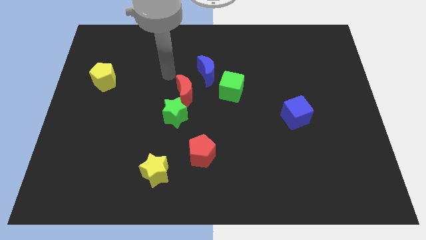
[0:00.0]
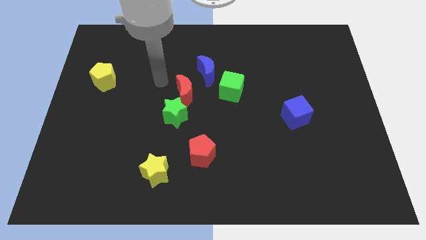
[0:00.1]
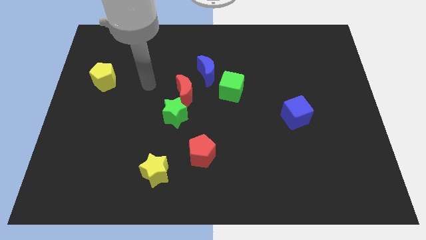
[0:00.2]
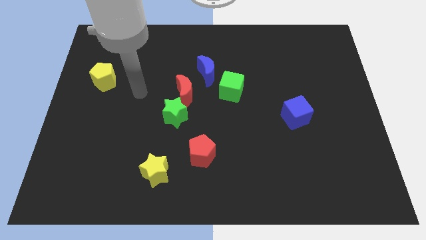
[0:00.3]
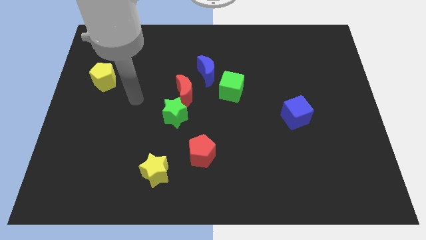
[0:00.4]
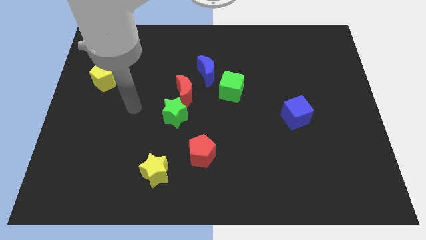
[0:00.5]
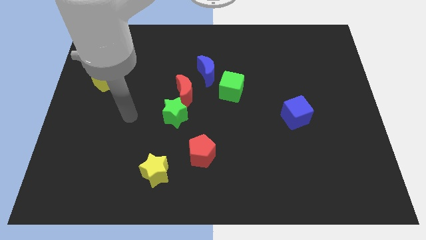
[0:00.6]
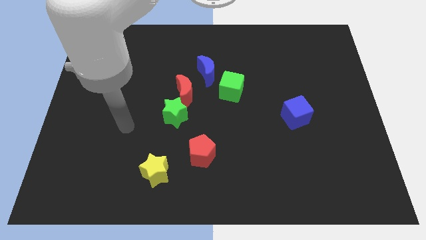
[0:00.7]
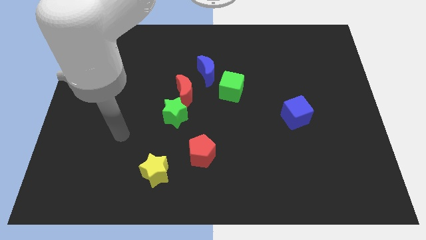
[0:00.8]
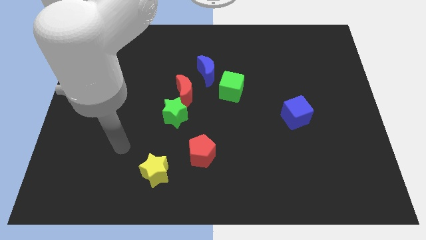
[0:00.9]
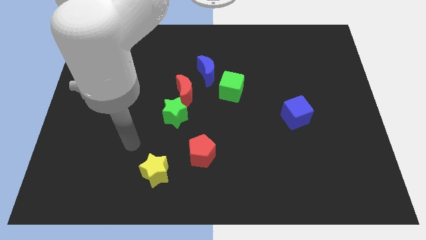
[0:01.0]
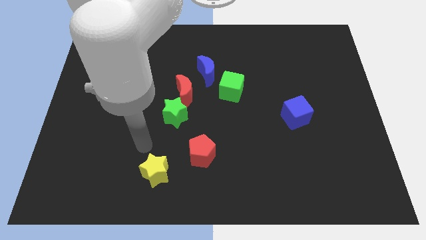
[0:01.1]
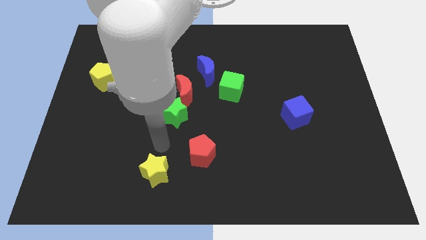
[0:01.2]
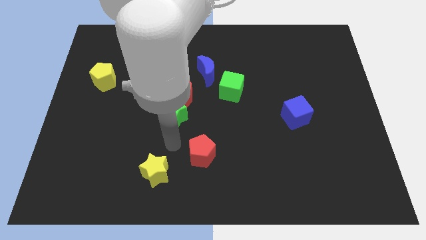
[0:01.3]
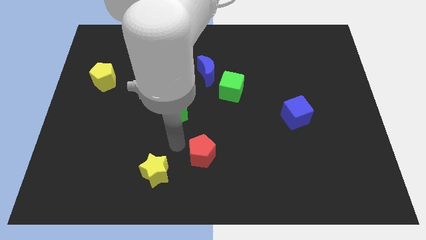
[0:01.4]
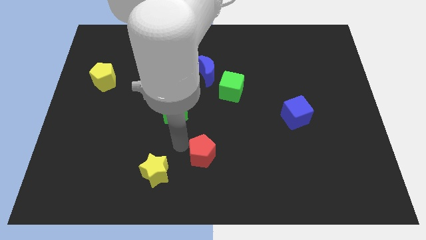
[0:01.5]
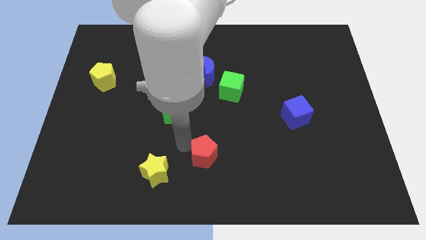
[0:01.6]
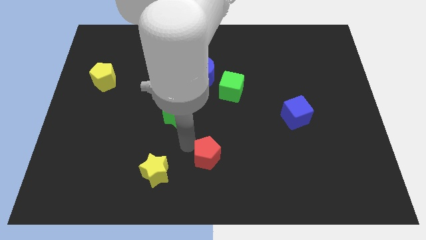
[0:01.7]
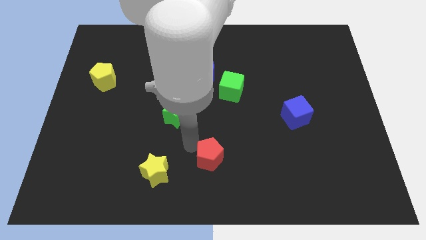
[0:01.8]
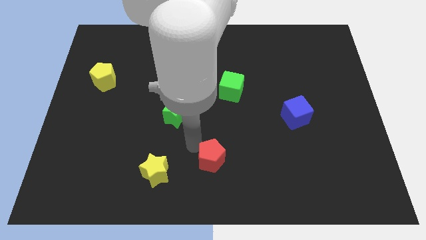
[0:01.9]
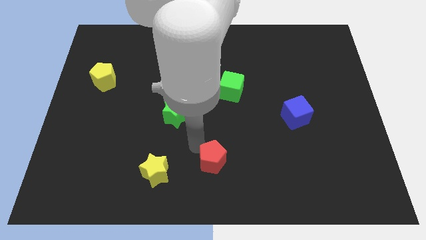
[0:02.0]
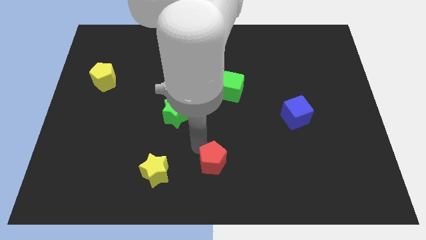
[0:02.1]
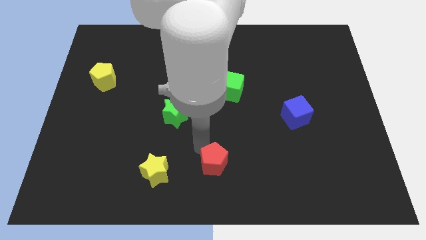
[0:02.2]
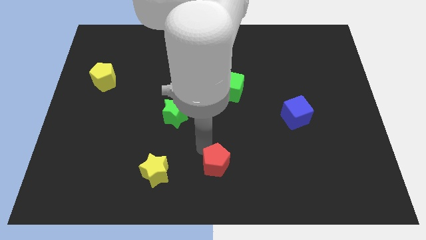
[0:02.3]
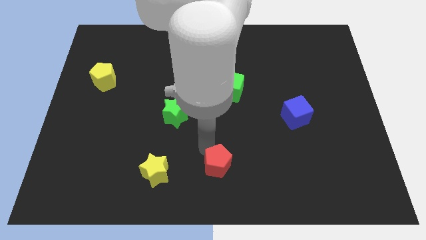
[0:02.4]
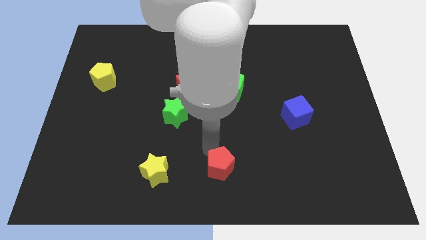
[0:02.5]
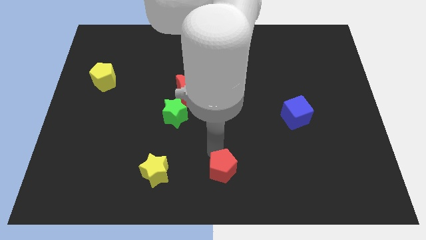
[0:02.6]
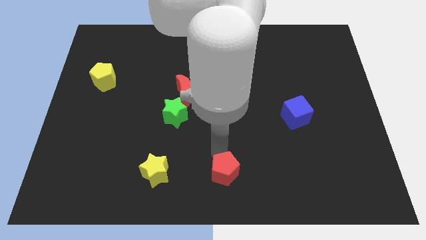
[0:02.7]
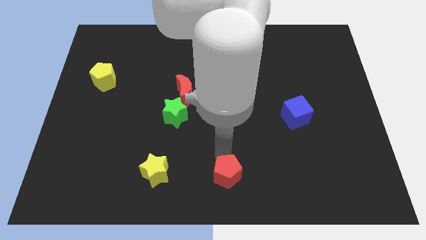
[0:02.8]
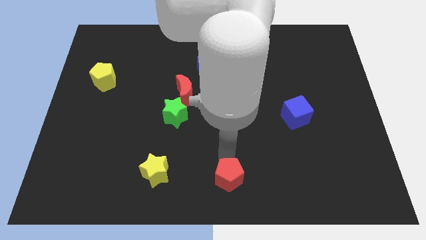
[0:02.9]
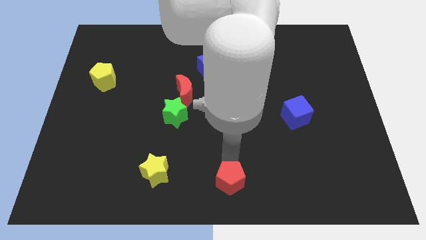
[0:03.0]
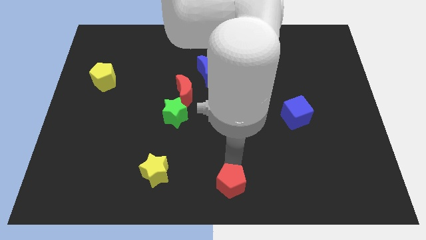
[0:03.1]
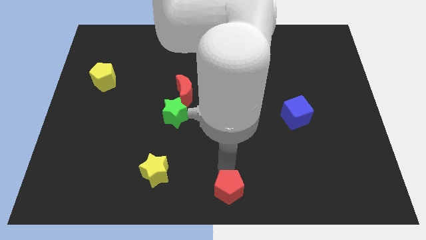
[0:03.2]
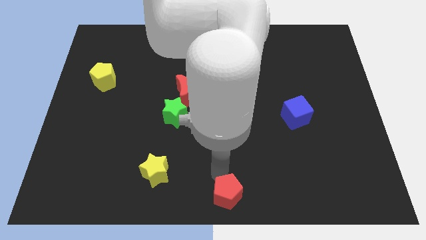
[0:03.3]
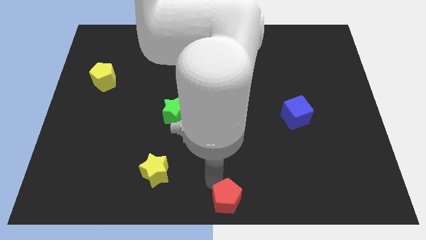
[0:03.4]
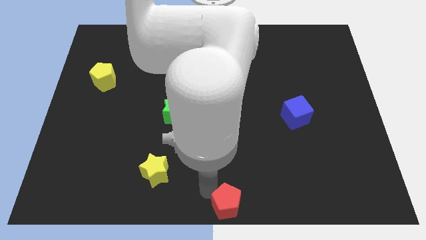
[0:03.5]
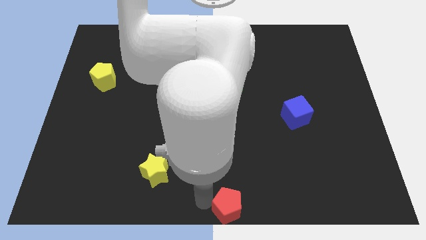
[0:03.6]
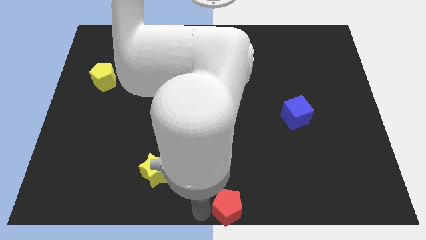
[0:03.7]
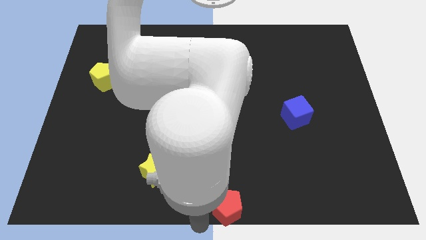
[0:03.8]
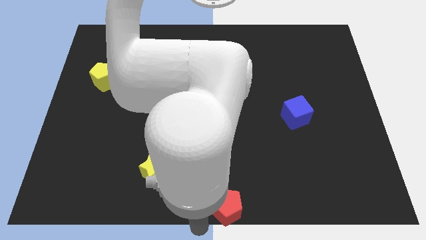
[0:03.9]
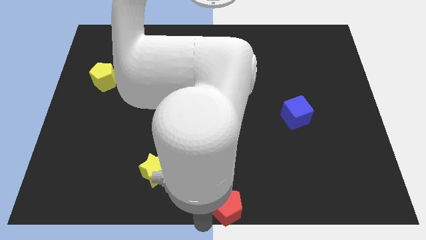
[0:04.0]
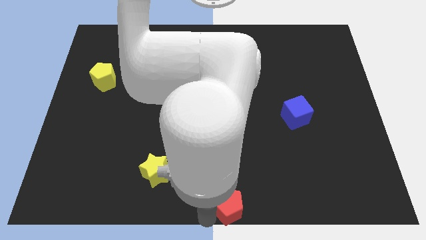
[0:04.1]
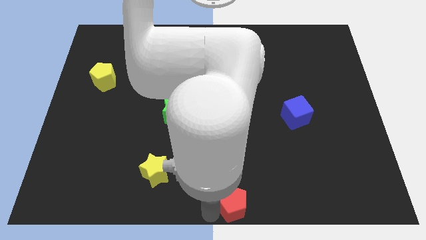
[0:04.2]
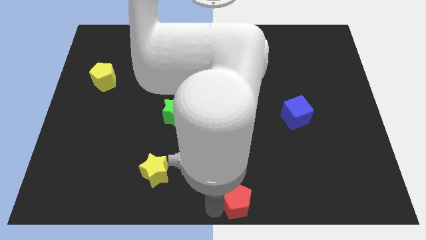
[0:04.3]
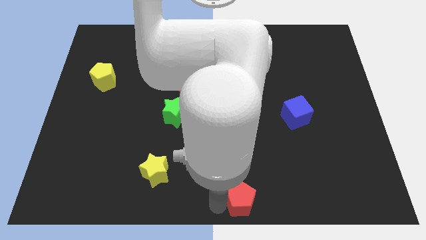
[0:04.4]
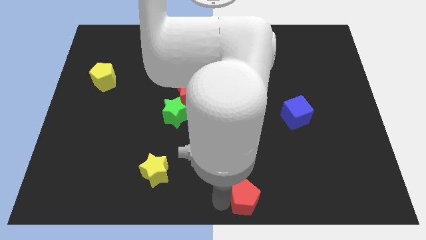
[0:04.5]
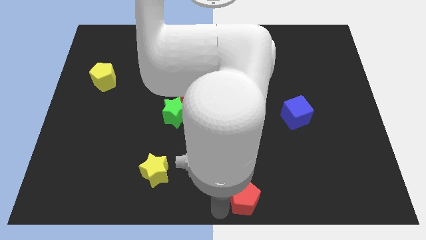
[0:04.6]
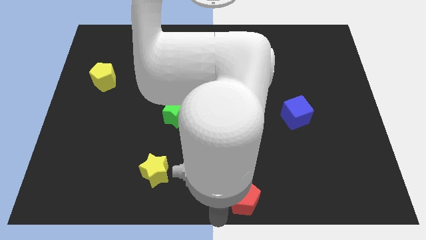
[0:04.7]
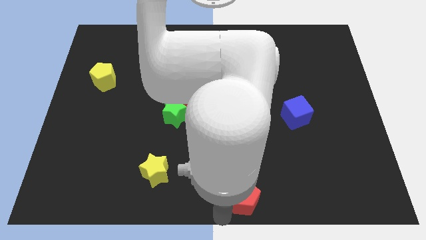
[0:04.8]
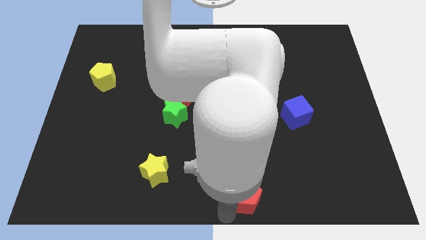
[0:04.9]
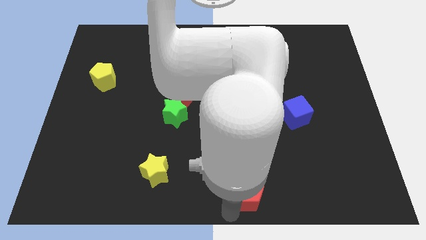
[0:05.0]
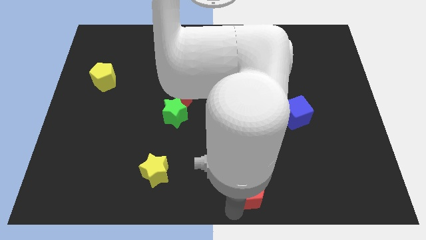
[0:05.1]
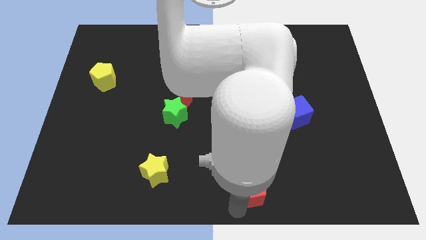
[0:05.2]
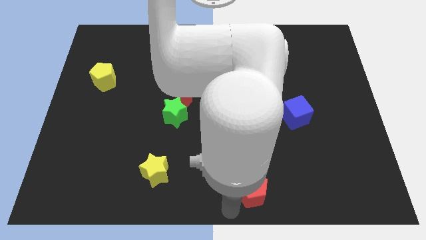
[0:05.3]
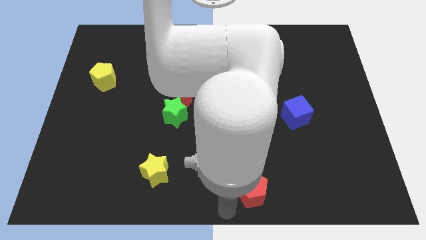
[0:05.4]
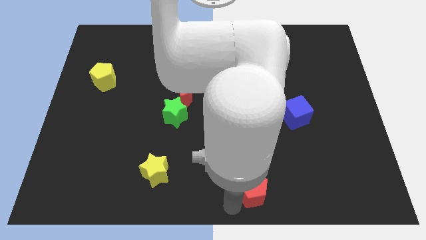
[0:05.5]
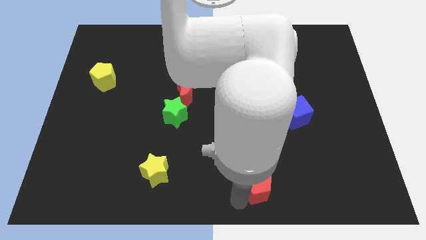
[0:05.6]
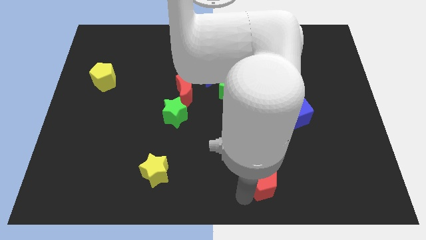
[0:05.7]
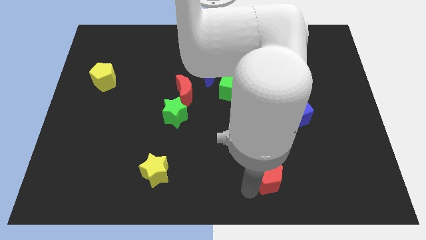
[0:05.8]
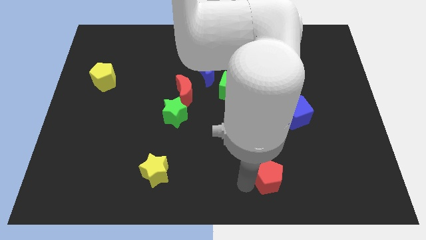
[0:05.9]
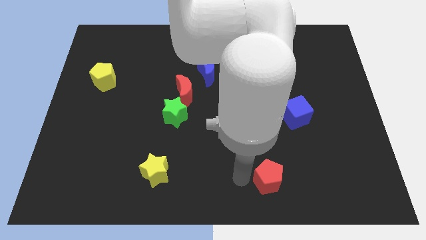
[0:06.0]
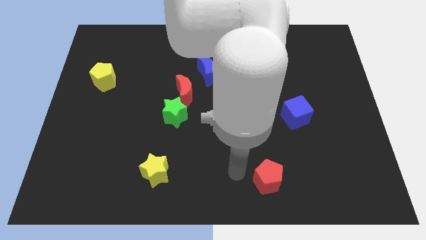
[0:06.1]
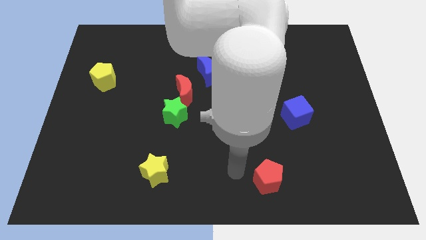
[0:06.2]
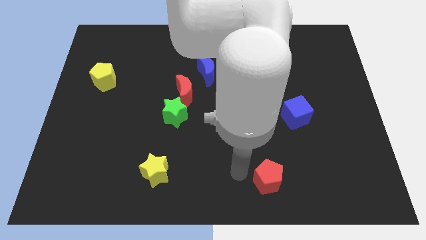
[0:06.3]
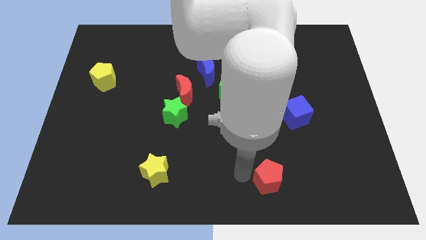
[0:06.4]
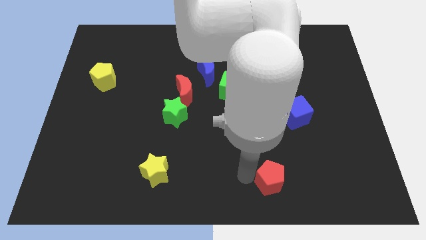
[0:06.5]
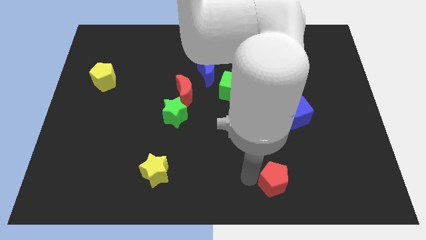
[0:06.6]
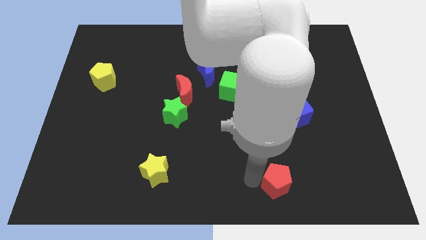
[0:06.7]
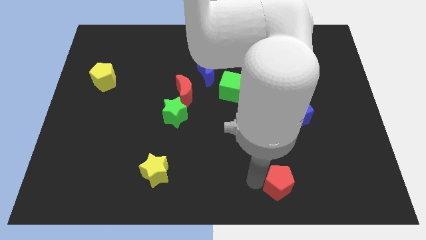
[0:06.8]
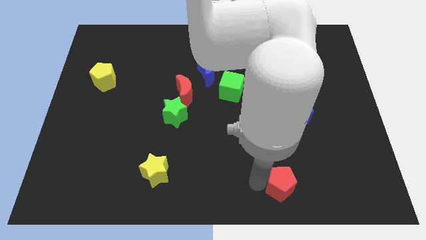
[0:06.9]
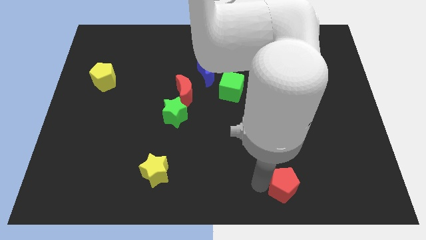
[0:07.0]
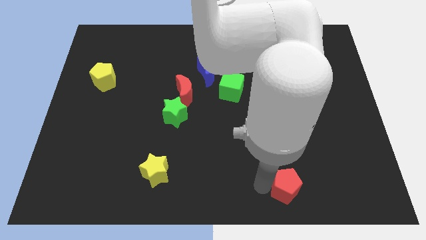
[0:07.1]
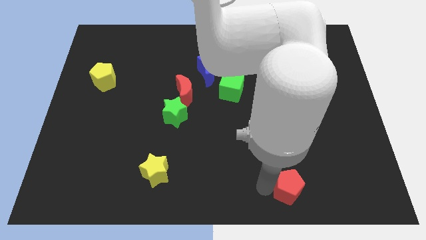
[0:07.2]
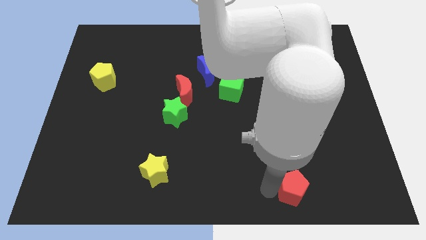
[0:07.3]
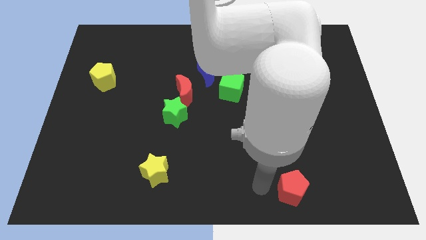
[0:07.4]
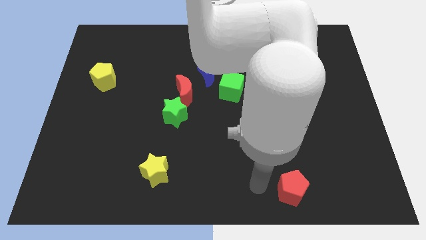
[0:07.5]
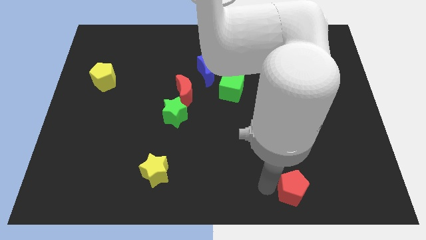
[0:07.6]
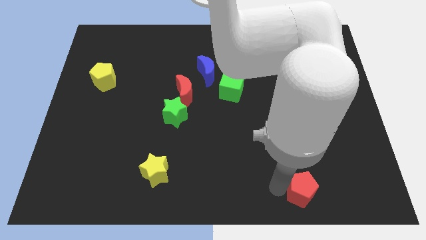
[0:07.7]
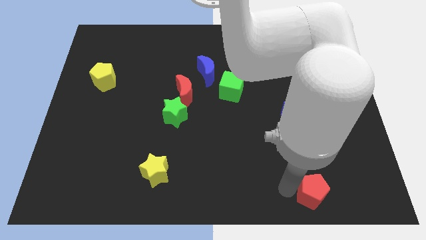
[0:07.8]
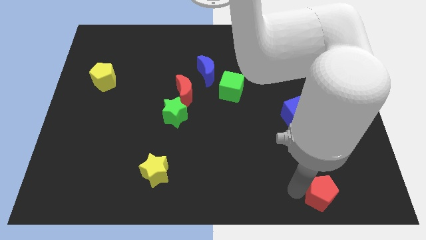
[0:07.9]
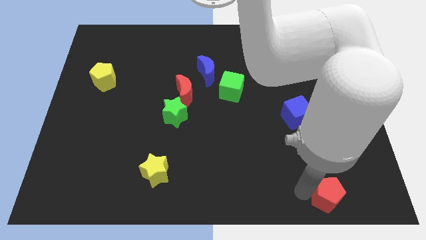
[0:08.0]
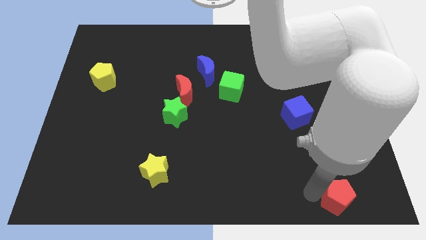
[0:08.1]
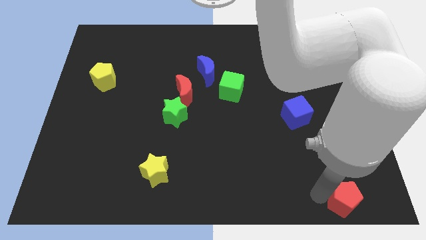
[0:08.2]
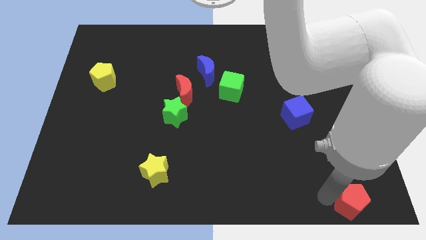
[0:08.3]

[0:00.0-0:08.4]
push the red pentagon to the lower right corner
